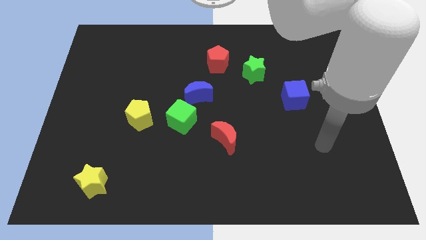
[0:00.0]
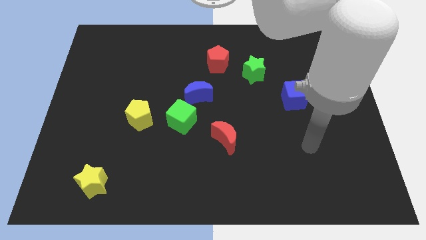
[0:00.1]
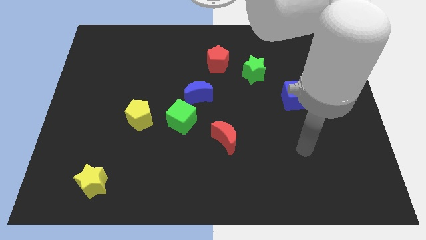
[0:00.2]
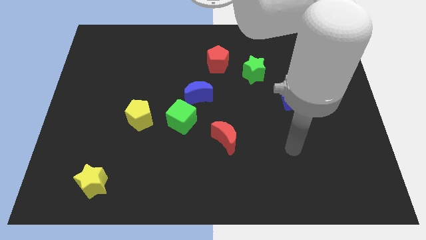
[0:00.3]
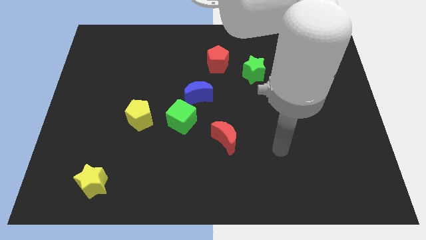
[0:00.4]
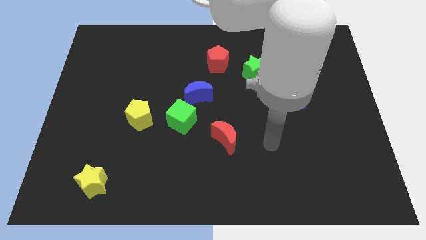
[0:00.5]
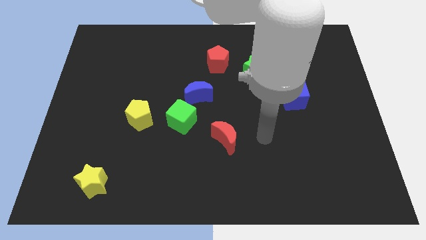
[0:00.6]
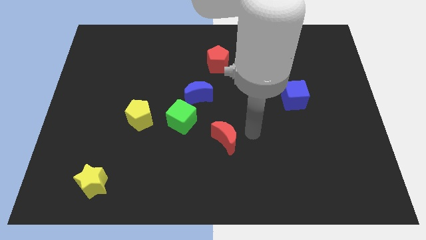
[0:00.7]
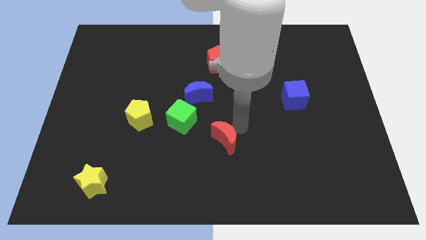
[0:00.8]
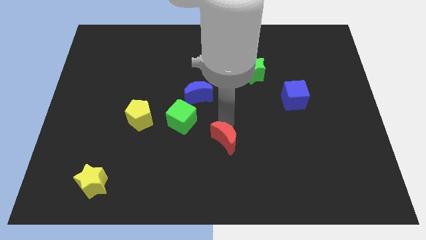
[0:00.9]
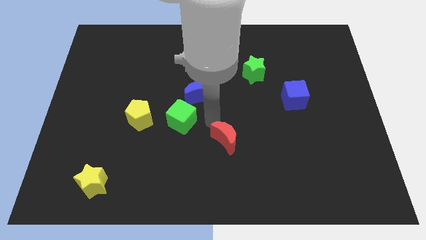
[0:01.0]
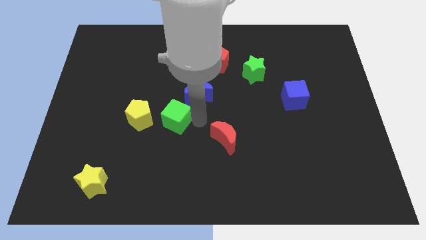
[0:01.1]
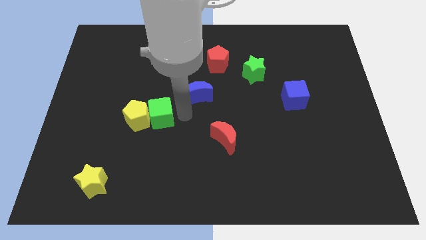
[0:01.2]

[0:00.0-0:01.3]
pull the blue moon apart from the green cube

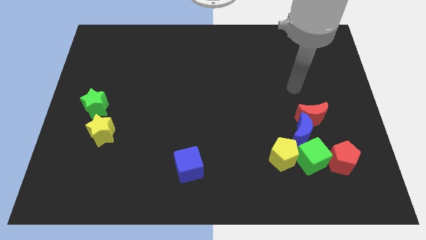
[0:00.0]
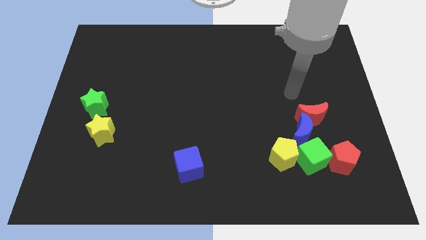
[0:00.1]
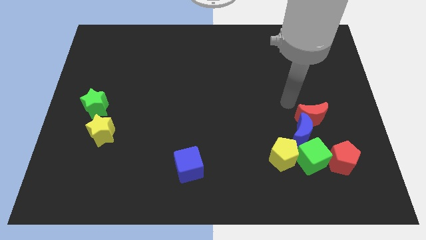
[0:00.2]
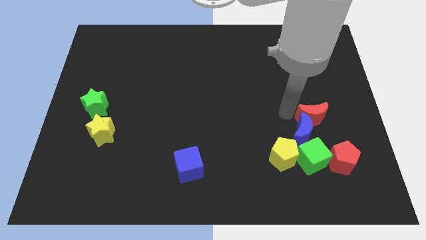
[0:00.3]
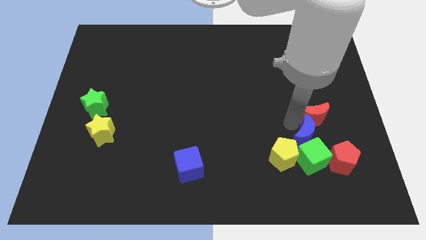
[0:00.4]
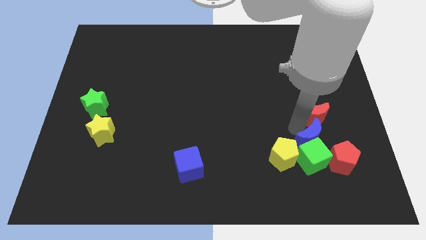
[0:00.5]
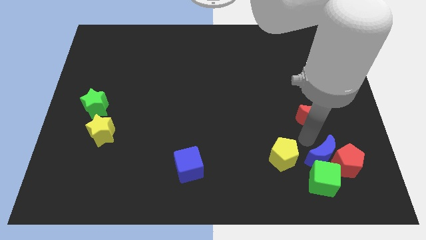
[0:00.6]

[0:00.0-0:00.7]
pull the red moon apart from the blue moon

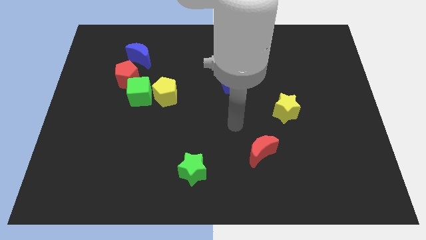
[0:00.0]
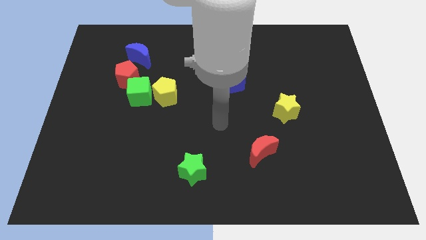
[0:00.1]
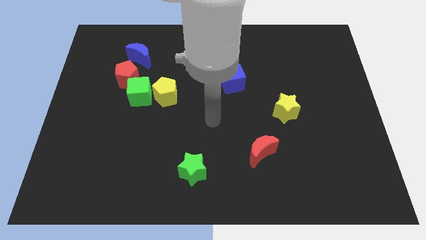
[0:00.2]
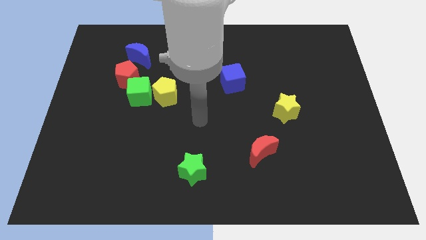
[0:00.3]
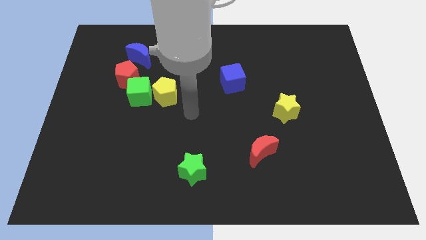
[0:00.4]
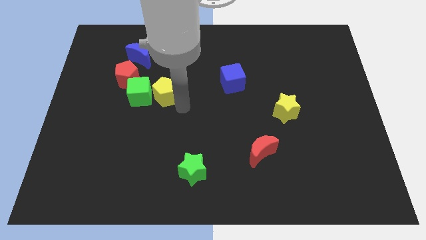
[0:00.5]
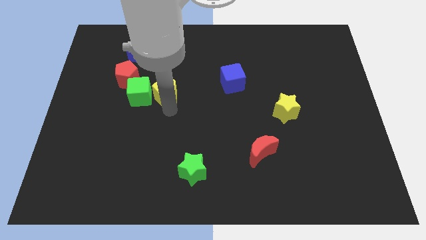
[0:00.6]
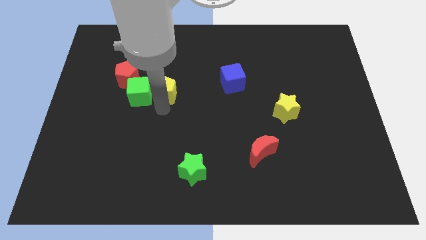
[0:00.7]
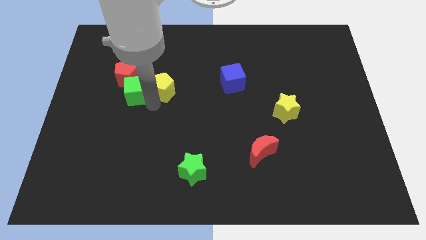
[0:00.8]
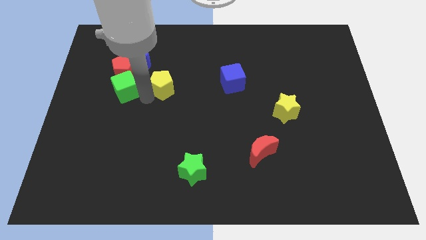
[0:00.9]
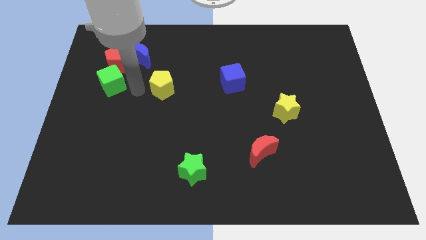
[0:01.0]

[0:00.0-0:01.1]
separate the yellow pentagon from the green cube

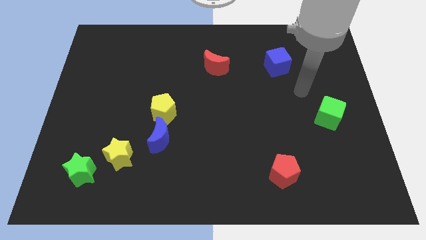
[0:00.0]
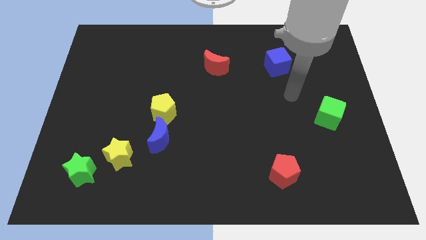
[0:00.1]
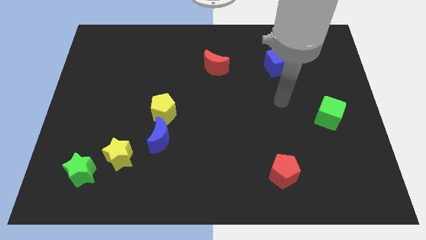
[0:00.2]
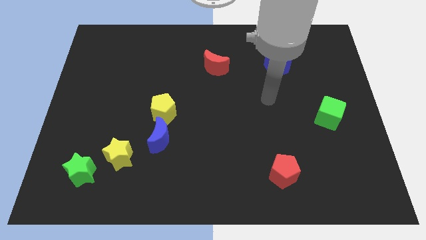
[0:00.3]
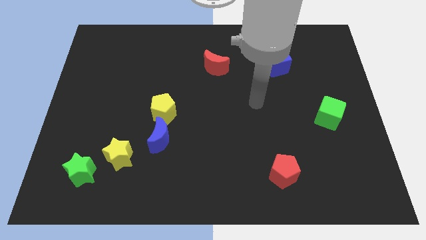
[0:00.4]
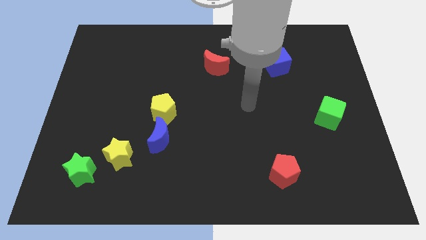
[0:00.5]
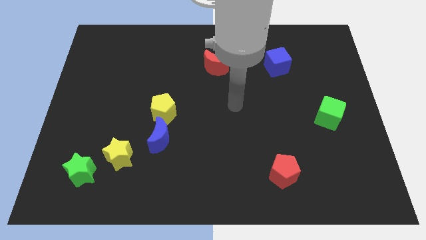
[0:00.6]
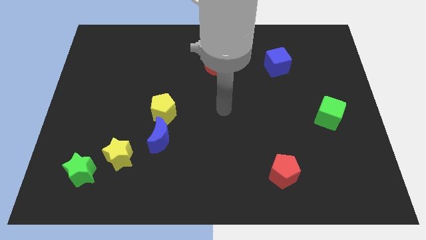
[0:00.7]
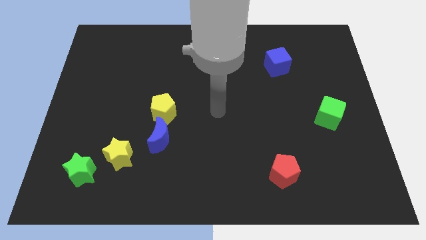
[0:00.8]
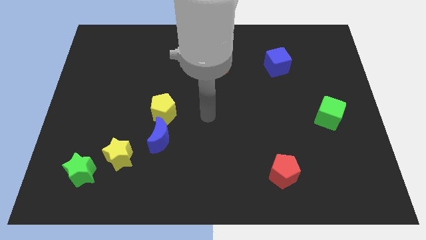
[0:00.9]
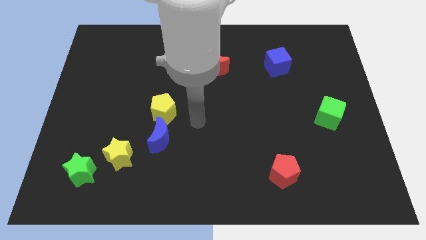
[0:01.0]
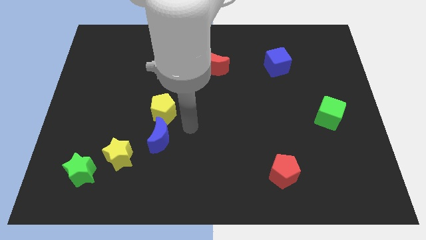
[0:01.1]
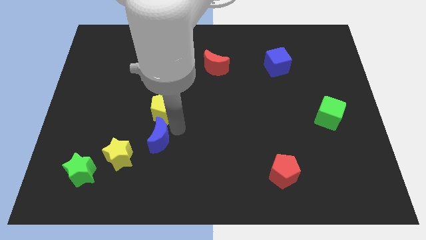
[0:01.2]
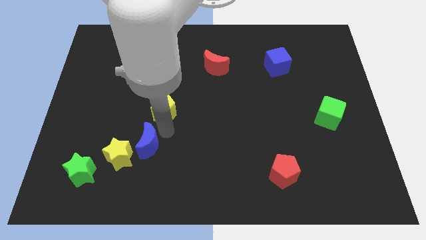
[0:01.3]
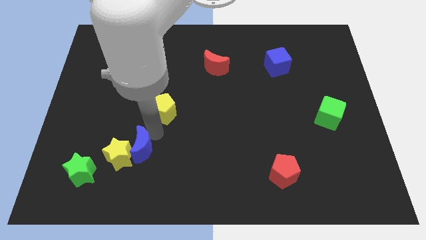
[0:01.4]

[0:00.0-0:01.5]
separate the yellow pentagon from the blue moon

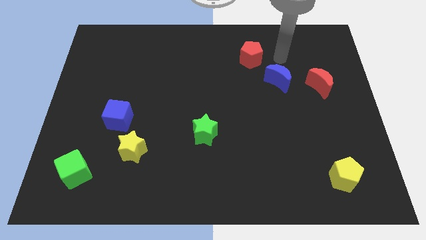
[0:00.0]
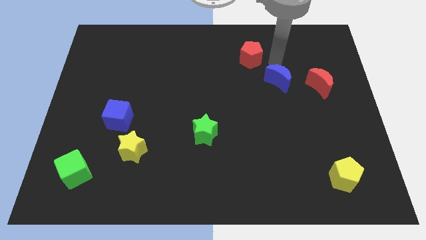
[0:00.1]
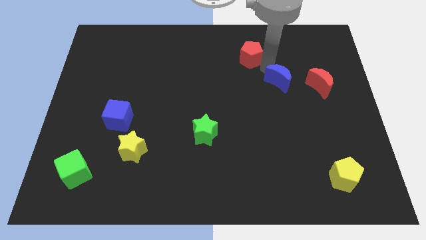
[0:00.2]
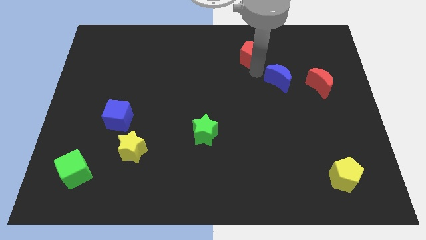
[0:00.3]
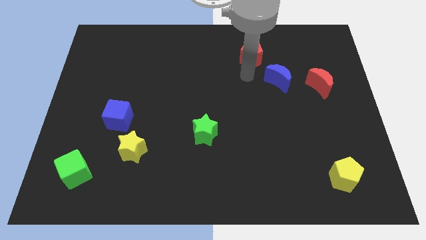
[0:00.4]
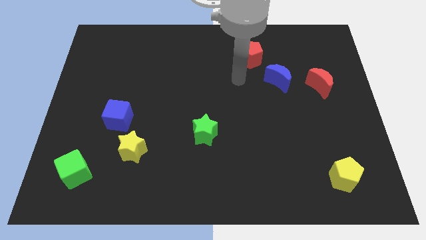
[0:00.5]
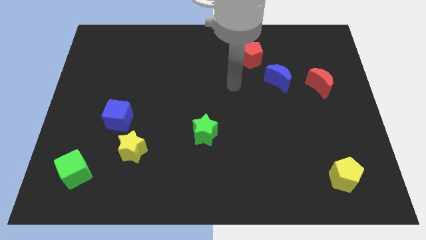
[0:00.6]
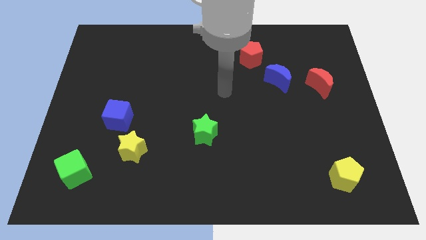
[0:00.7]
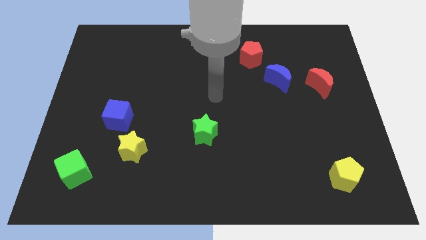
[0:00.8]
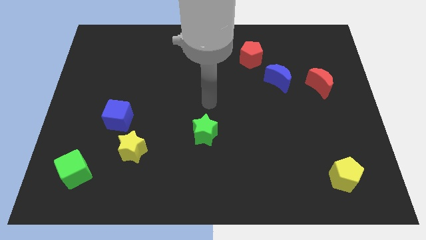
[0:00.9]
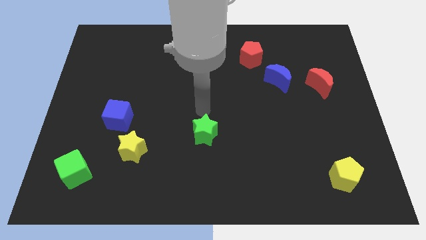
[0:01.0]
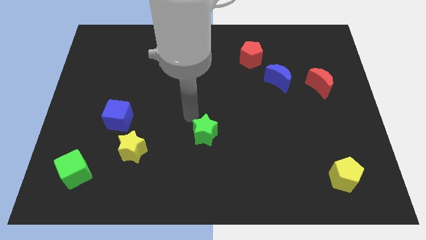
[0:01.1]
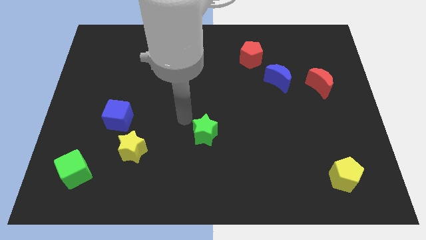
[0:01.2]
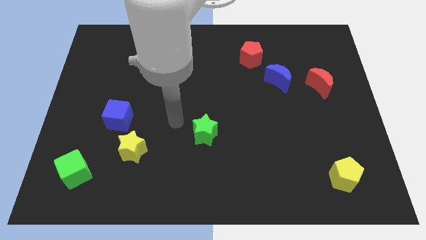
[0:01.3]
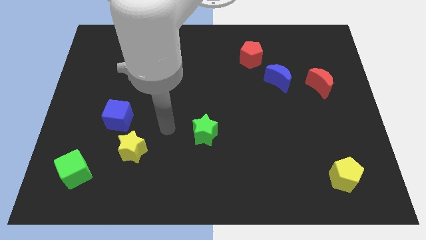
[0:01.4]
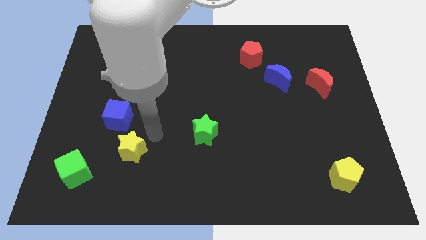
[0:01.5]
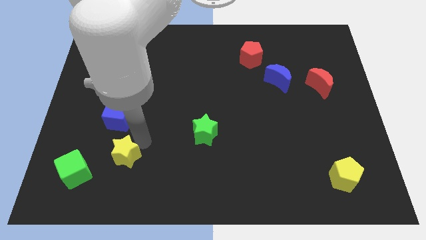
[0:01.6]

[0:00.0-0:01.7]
pull the blue cube apart from the yellow star

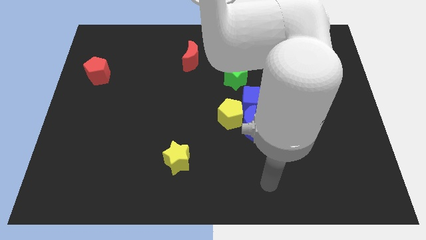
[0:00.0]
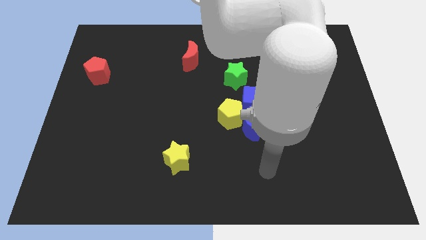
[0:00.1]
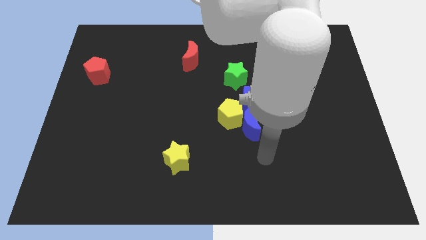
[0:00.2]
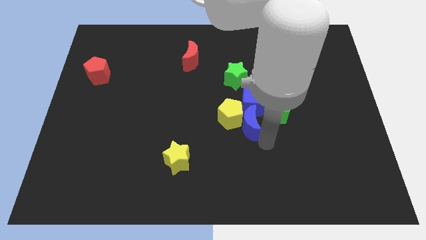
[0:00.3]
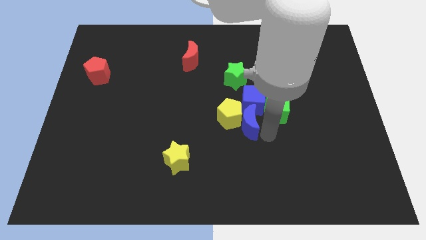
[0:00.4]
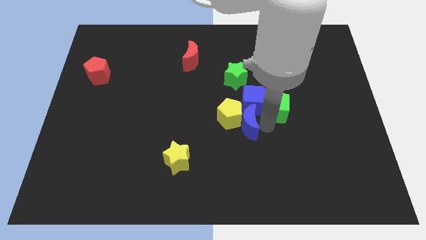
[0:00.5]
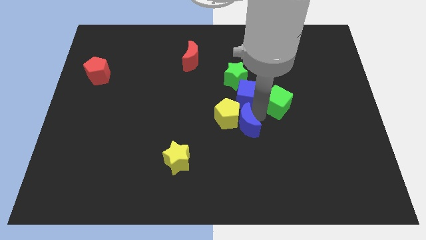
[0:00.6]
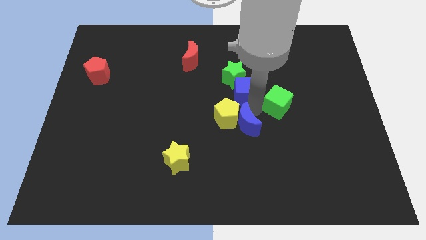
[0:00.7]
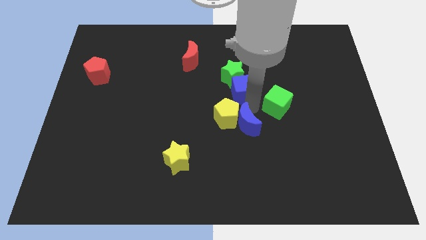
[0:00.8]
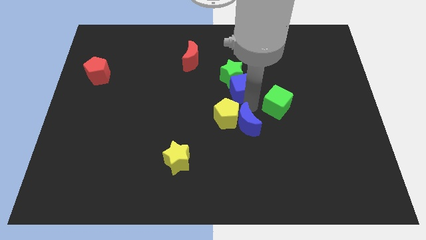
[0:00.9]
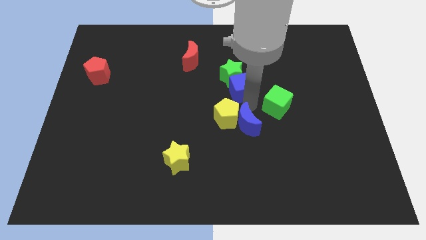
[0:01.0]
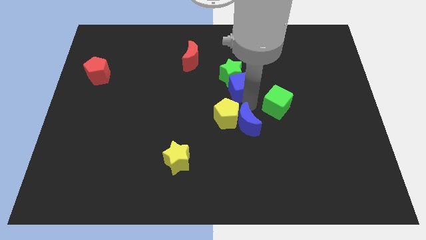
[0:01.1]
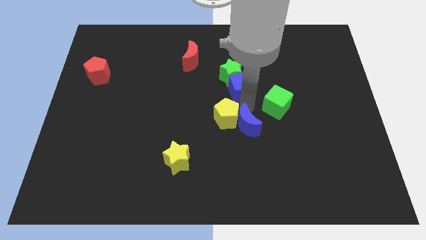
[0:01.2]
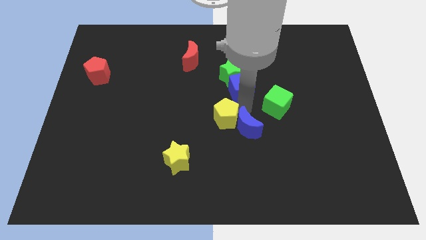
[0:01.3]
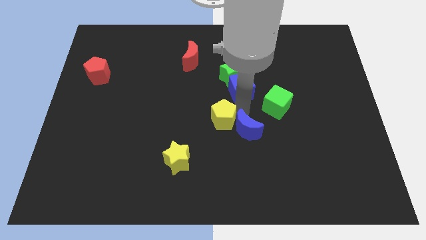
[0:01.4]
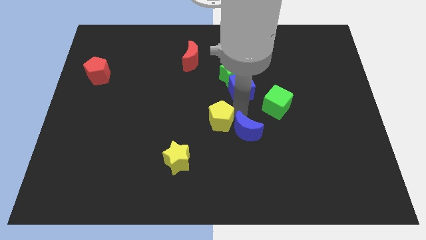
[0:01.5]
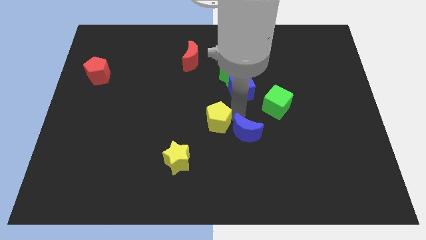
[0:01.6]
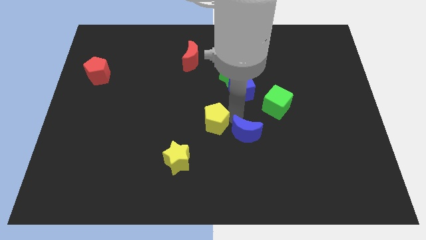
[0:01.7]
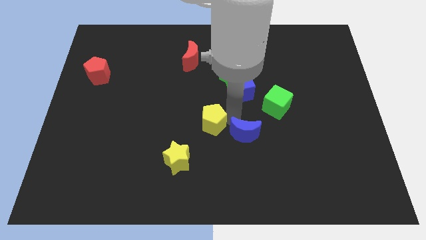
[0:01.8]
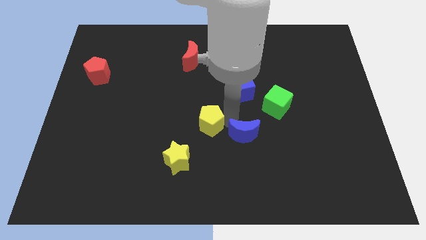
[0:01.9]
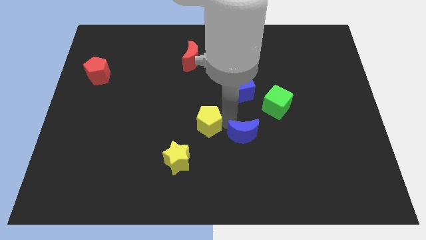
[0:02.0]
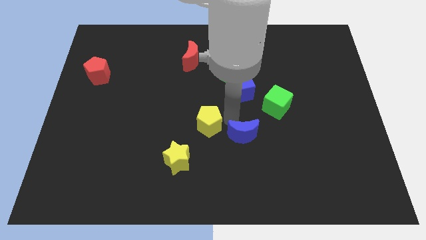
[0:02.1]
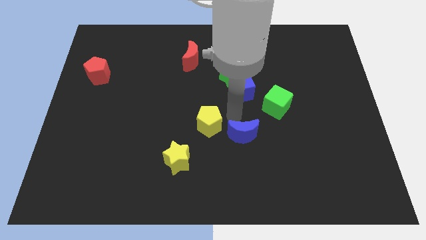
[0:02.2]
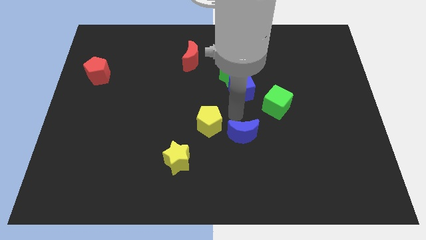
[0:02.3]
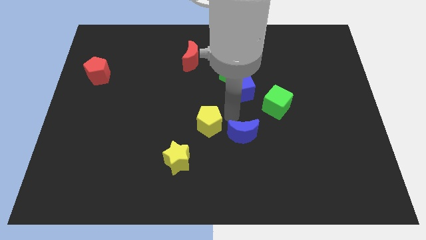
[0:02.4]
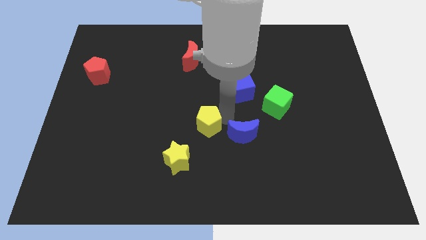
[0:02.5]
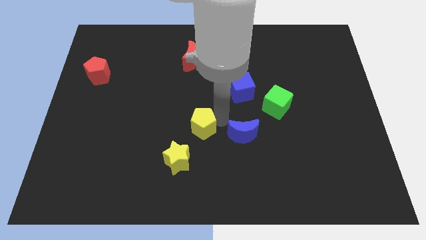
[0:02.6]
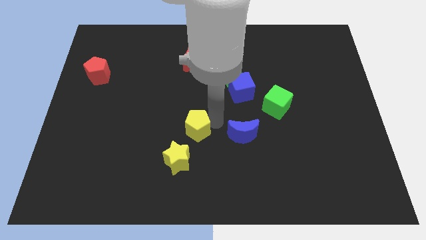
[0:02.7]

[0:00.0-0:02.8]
pull the yellow pentagon apart from the blue moon and blue cube

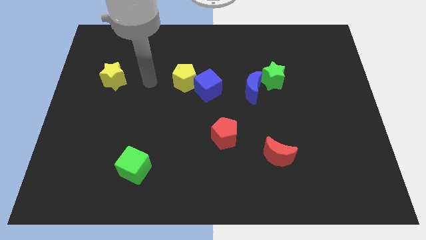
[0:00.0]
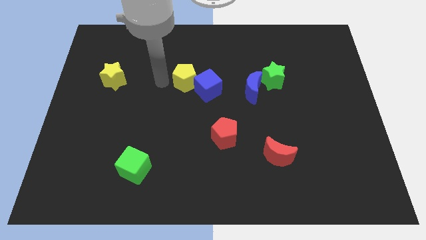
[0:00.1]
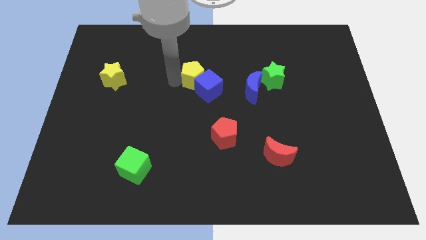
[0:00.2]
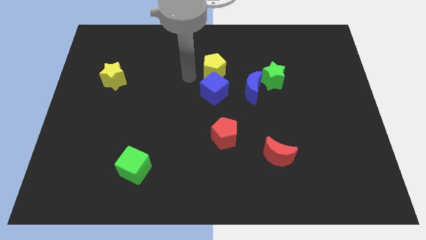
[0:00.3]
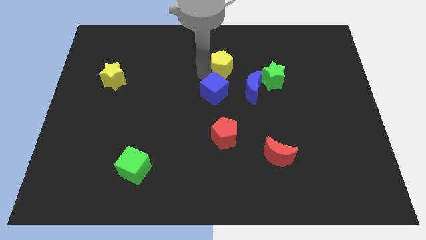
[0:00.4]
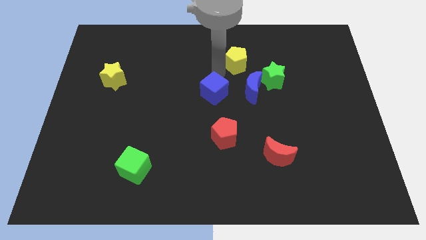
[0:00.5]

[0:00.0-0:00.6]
move the blue cube away from the yellow pentagon
